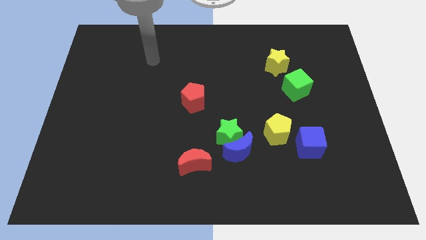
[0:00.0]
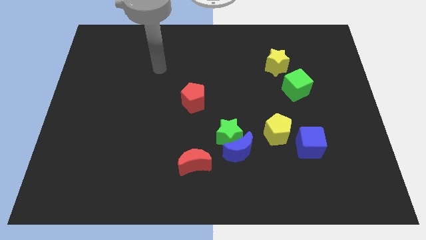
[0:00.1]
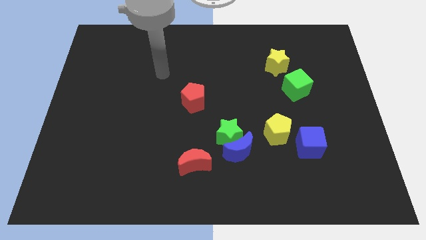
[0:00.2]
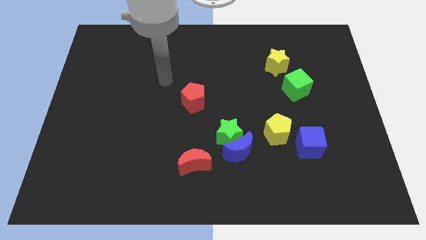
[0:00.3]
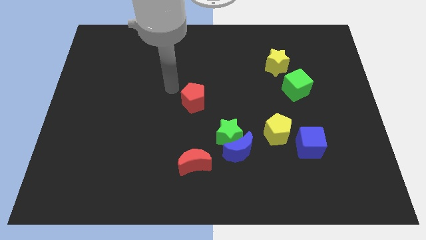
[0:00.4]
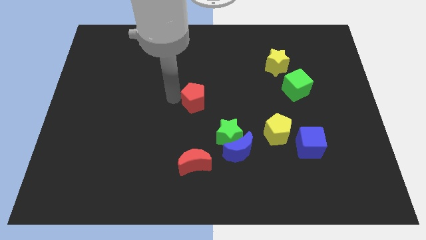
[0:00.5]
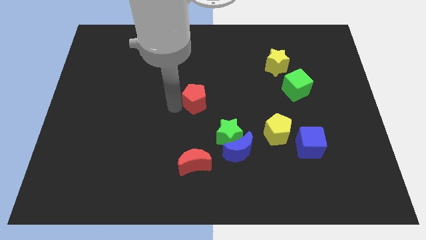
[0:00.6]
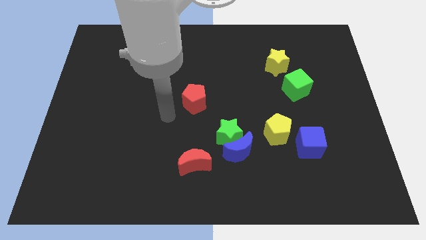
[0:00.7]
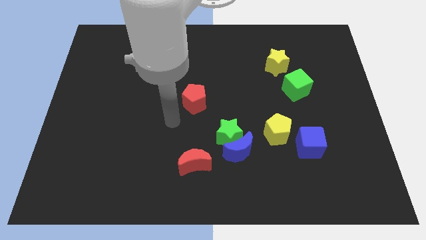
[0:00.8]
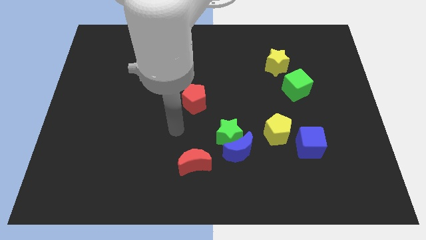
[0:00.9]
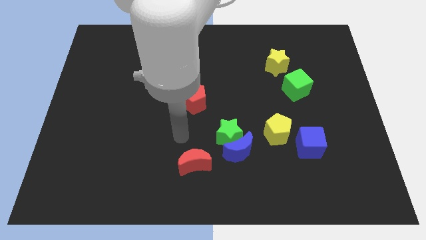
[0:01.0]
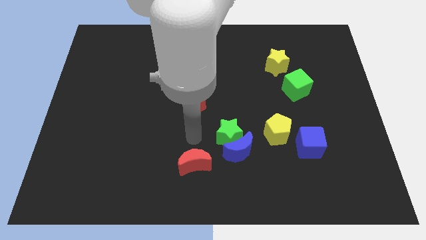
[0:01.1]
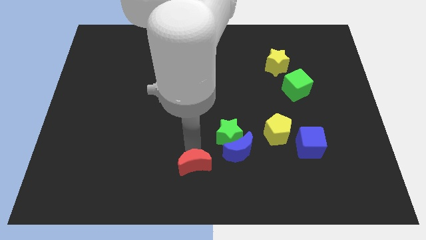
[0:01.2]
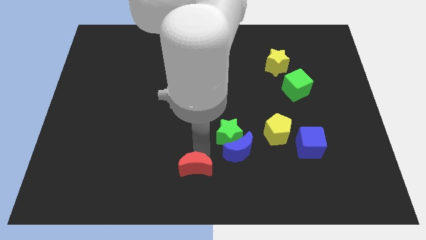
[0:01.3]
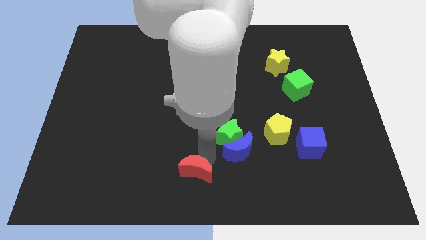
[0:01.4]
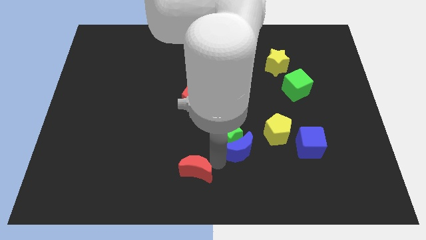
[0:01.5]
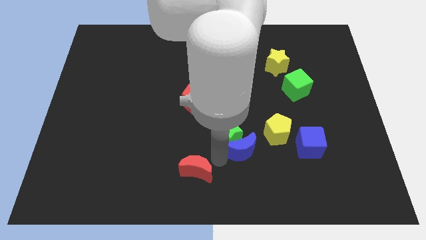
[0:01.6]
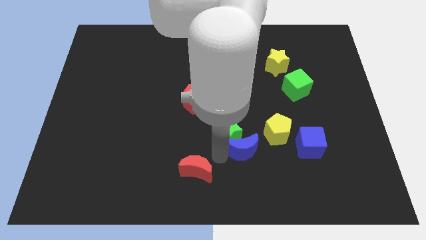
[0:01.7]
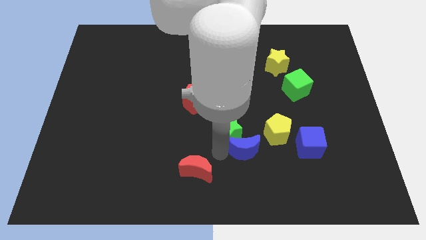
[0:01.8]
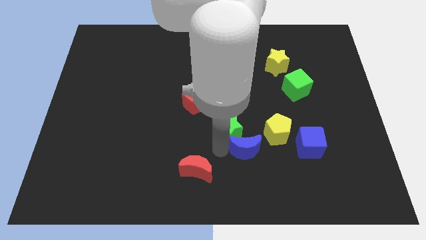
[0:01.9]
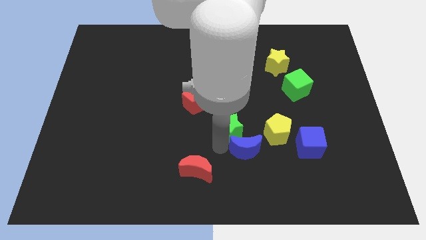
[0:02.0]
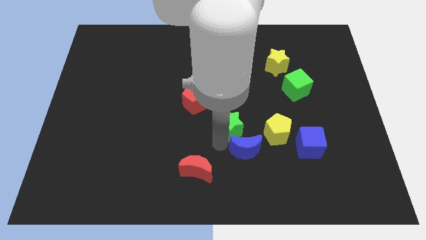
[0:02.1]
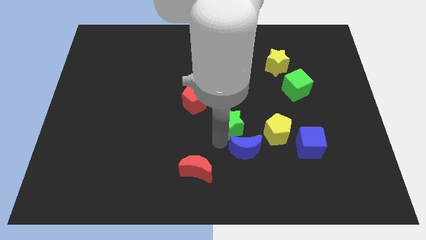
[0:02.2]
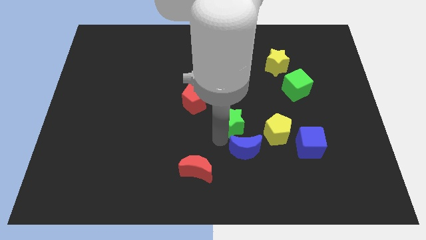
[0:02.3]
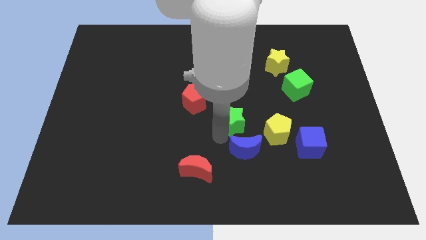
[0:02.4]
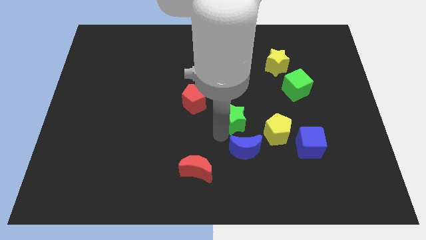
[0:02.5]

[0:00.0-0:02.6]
separate the green star from the blue moon and red moon

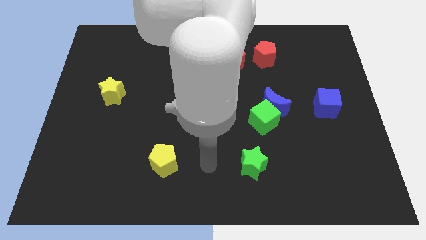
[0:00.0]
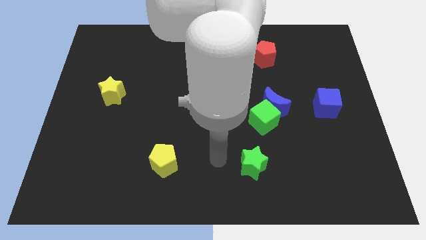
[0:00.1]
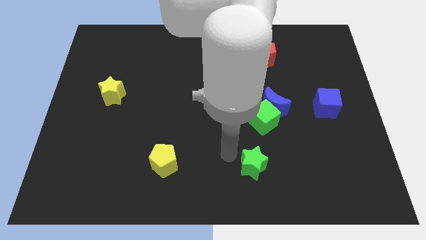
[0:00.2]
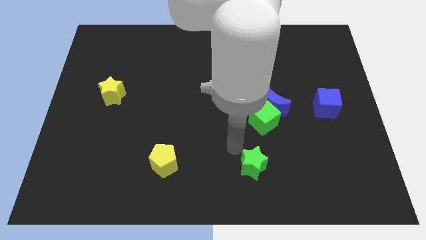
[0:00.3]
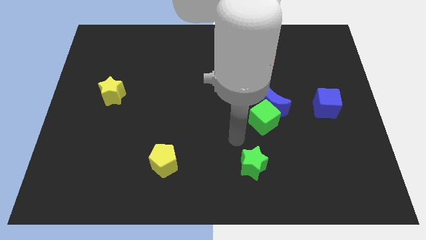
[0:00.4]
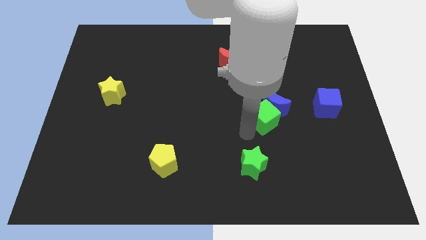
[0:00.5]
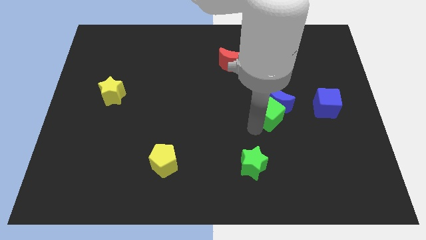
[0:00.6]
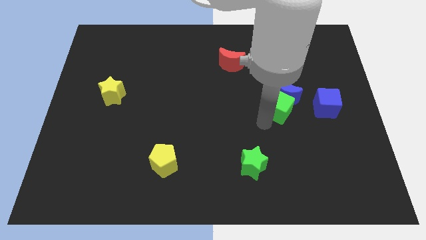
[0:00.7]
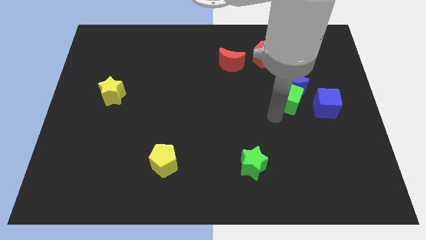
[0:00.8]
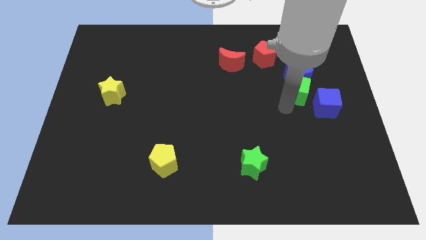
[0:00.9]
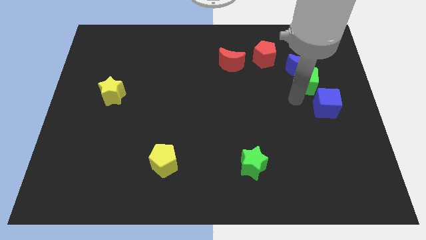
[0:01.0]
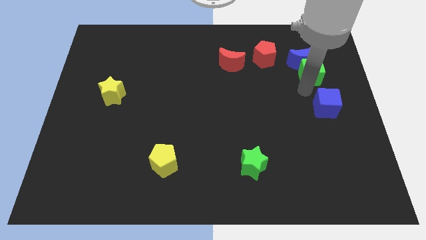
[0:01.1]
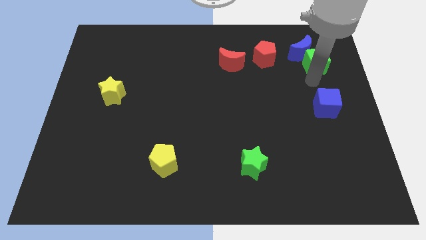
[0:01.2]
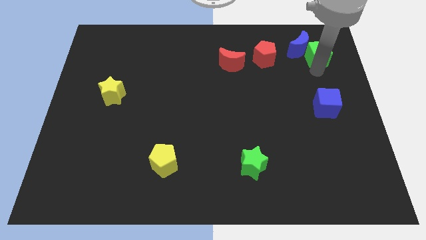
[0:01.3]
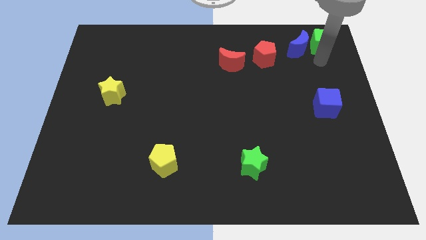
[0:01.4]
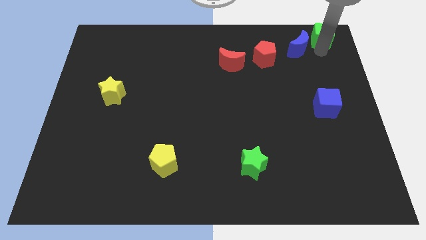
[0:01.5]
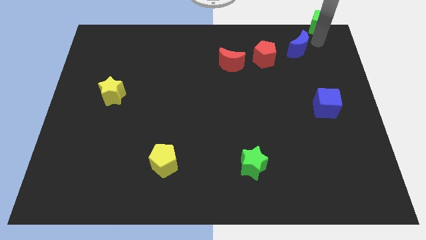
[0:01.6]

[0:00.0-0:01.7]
separate the blue moon from the green cube

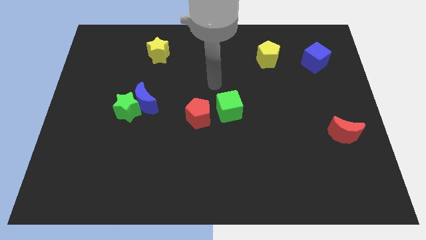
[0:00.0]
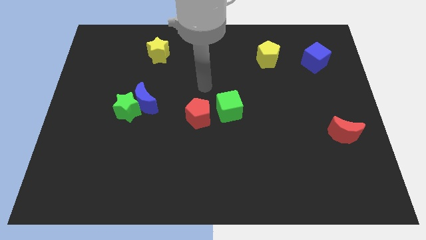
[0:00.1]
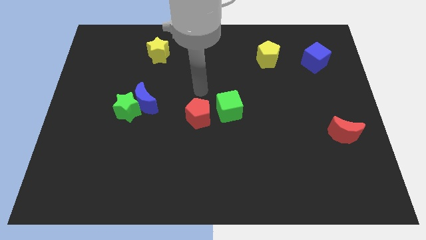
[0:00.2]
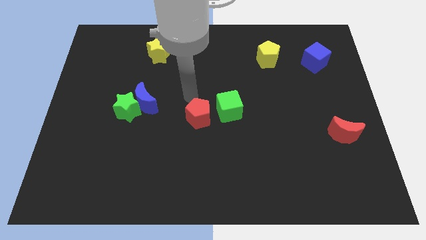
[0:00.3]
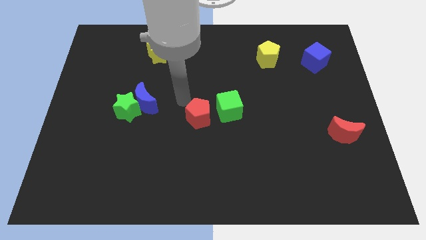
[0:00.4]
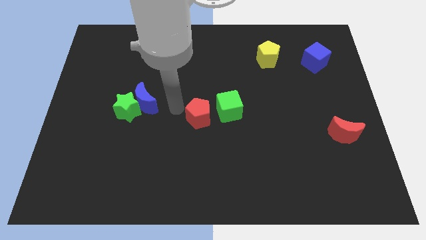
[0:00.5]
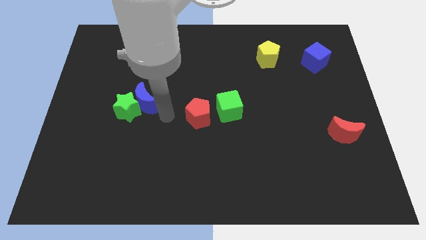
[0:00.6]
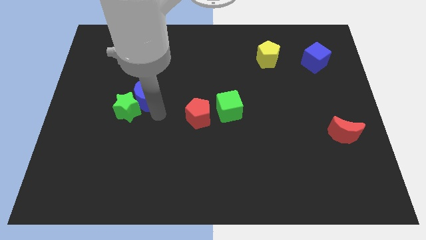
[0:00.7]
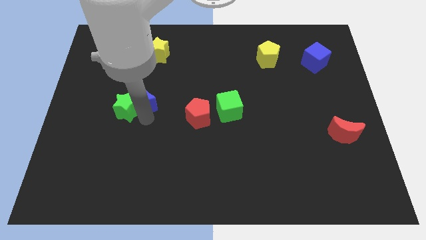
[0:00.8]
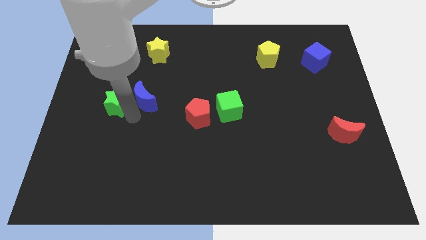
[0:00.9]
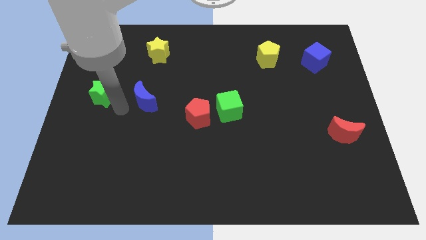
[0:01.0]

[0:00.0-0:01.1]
pull the blue moon apart from the green star

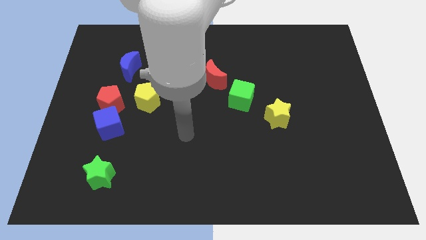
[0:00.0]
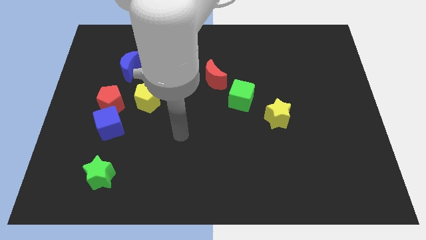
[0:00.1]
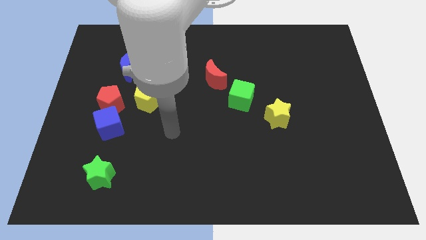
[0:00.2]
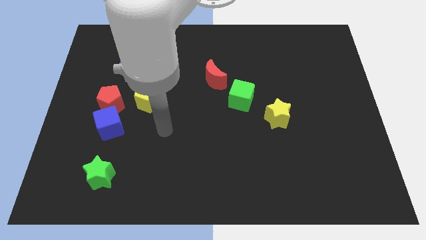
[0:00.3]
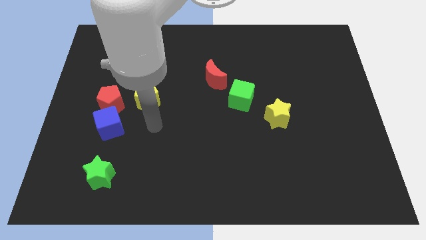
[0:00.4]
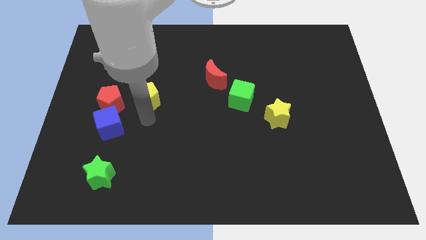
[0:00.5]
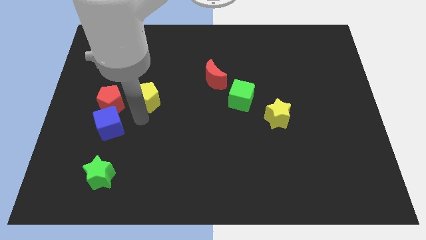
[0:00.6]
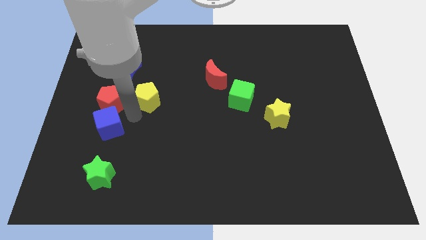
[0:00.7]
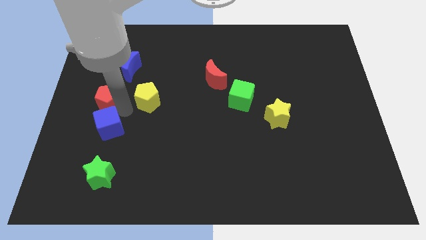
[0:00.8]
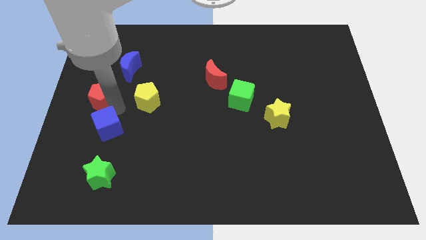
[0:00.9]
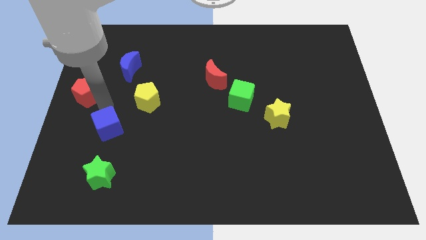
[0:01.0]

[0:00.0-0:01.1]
pull the blue cube apart from the red pentagon

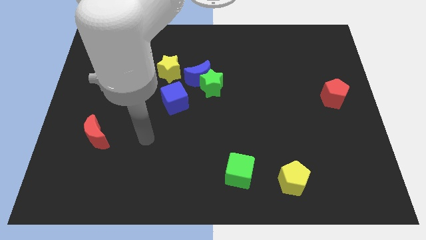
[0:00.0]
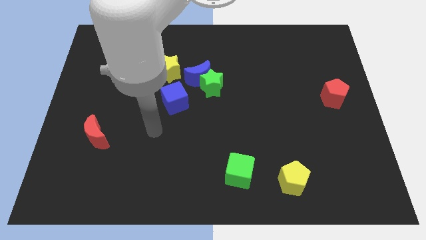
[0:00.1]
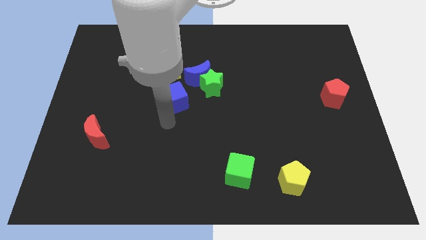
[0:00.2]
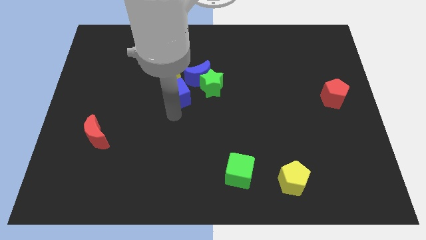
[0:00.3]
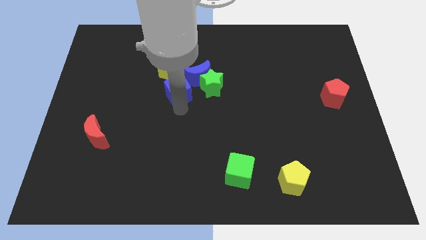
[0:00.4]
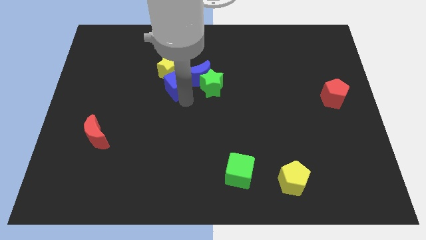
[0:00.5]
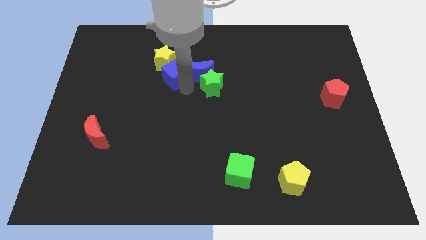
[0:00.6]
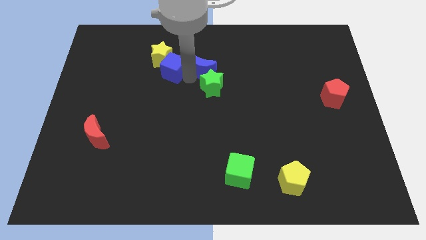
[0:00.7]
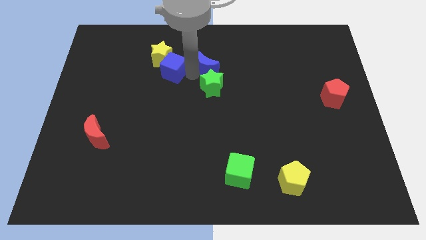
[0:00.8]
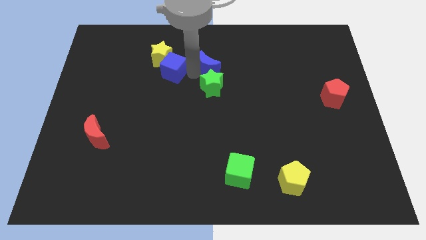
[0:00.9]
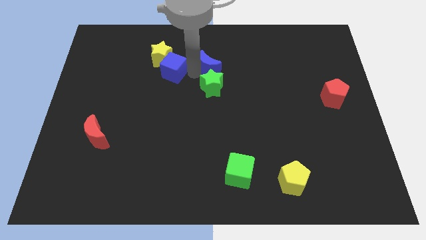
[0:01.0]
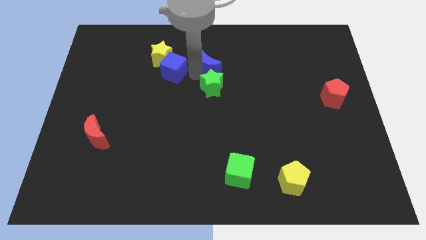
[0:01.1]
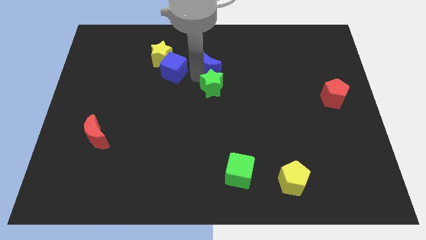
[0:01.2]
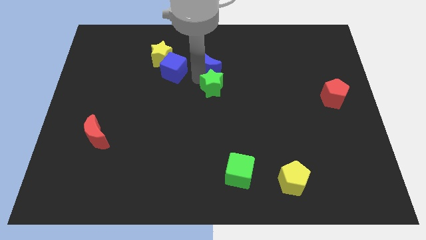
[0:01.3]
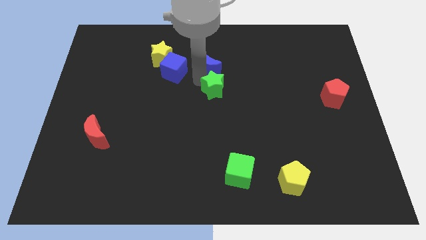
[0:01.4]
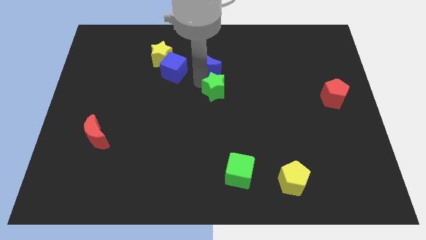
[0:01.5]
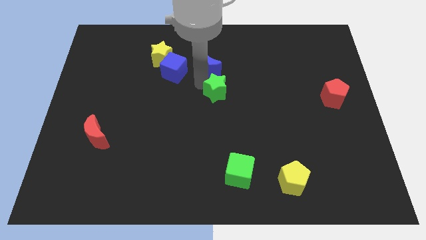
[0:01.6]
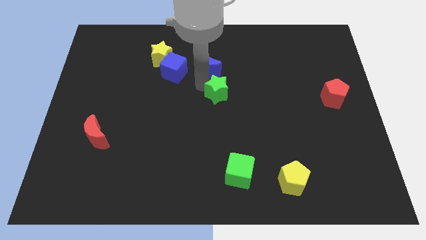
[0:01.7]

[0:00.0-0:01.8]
pull the green star apart from the blue moon and blue cube

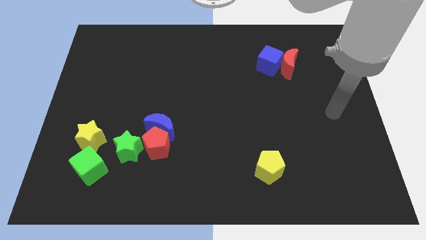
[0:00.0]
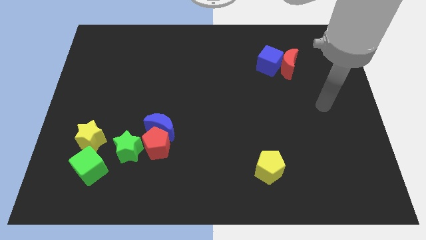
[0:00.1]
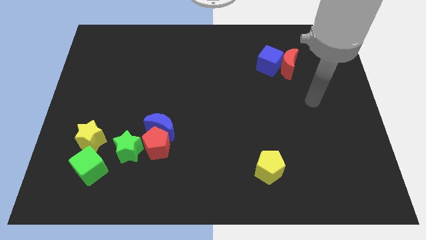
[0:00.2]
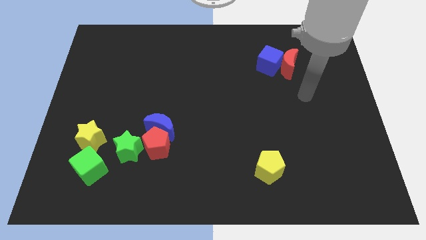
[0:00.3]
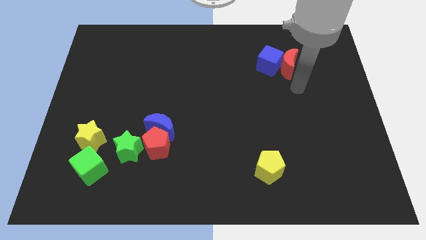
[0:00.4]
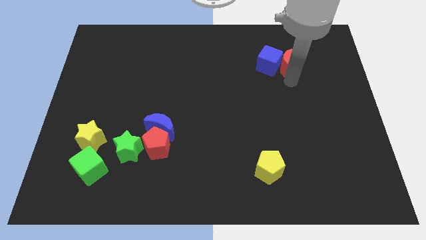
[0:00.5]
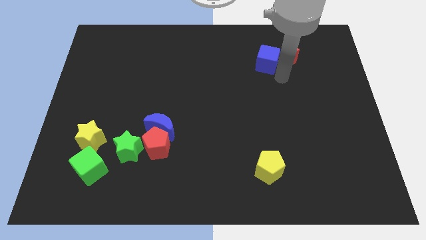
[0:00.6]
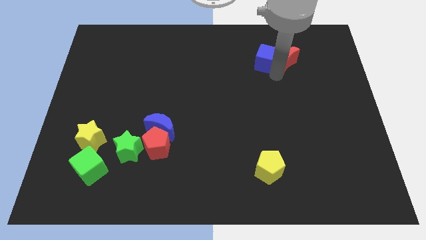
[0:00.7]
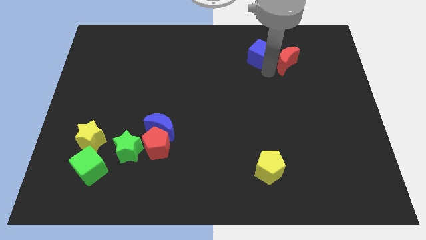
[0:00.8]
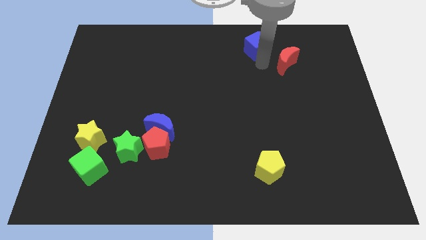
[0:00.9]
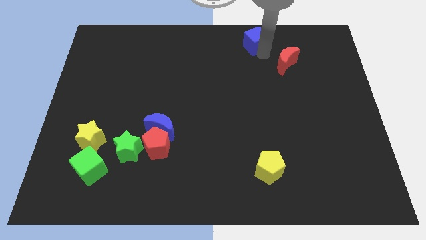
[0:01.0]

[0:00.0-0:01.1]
pull the red moon apart from the blue cube
